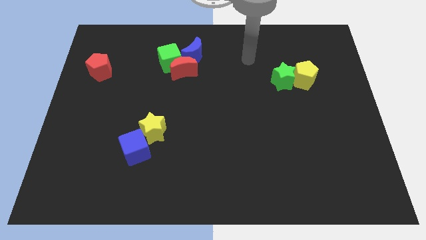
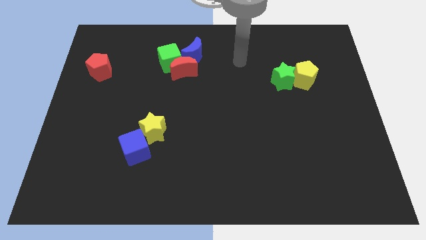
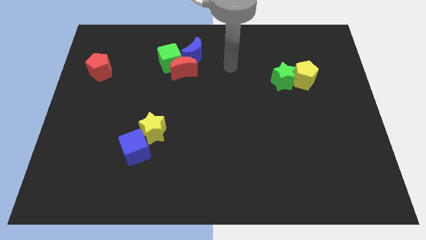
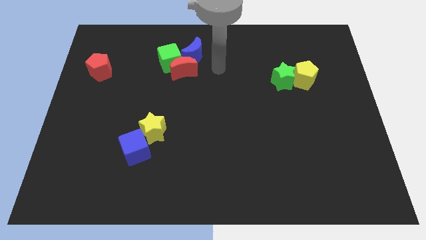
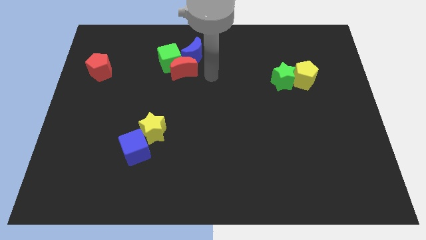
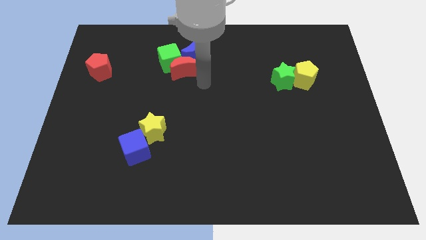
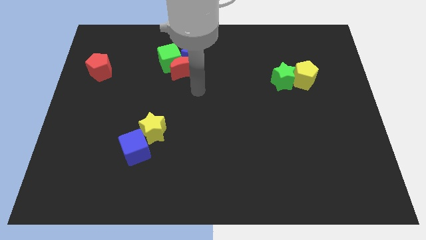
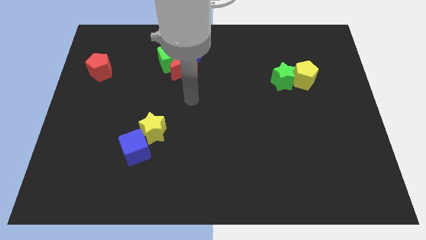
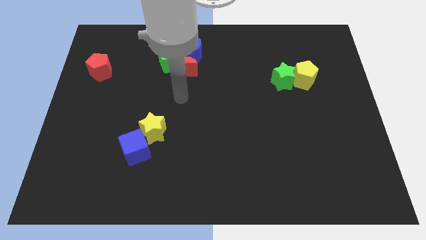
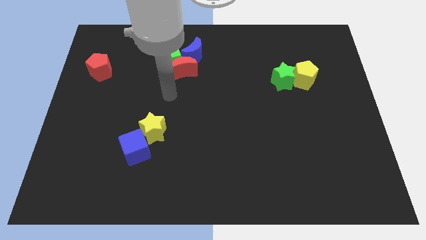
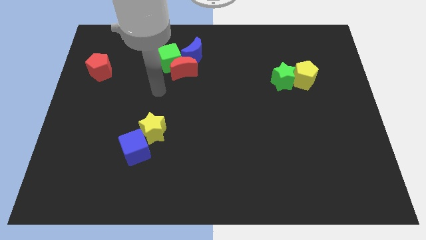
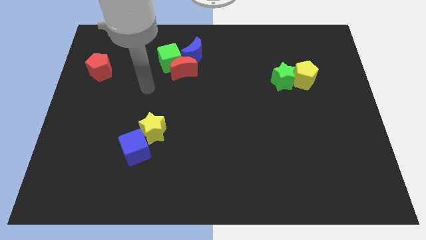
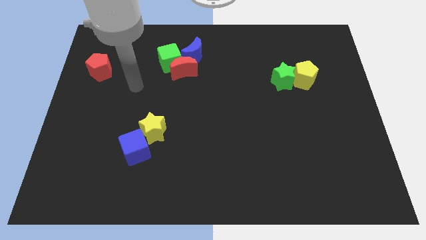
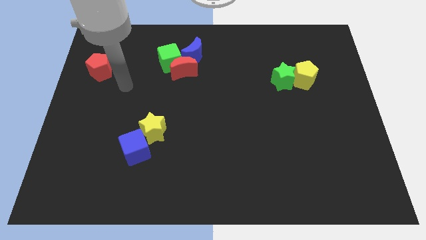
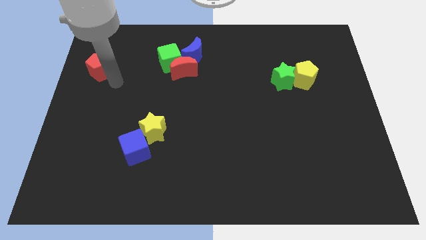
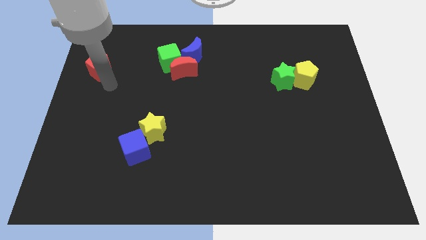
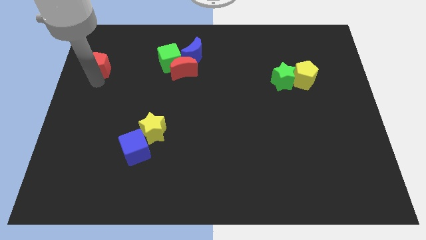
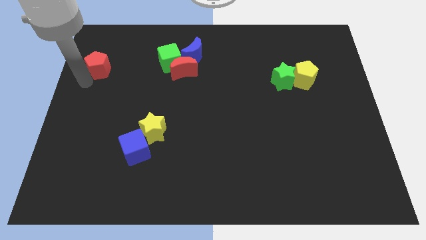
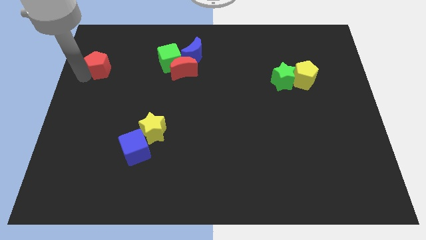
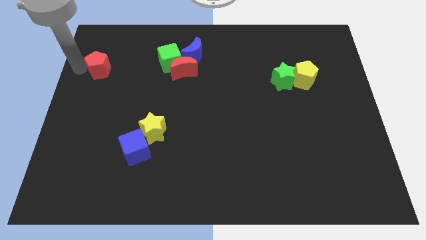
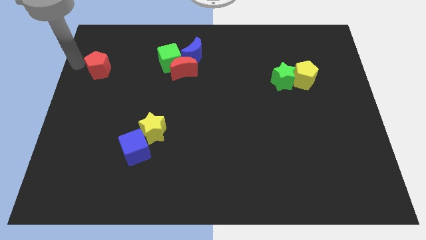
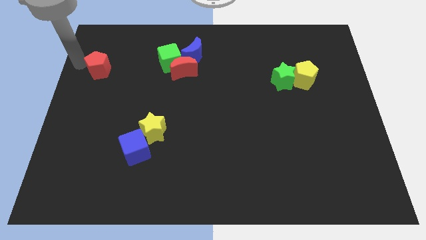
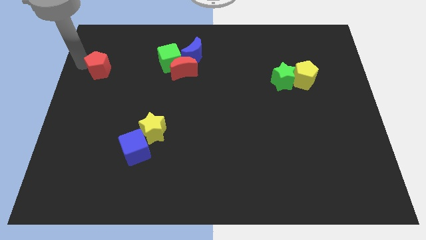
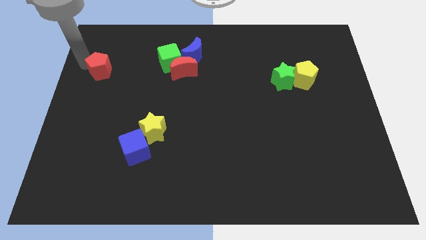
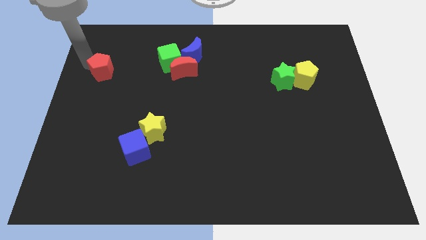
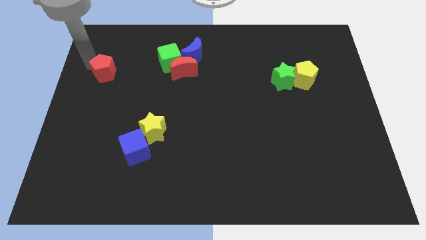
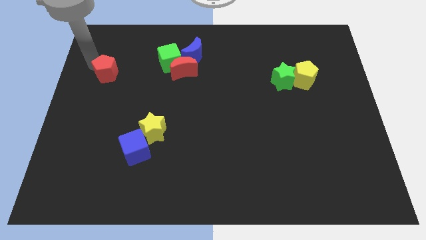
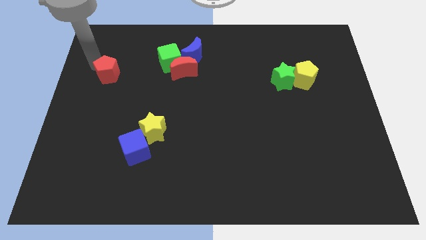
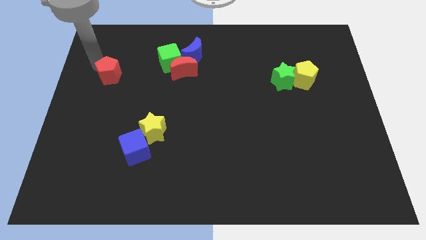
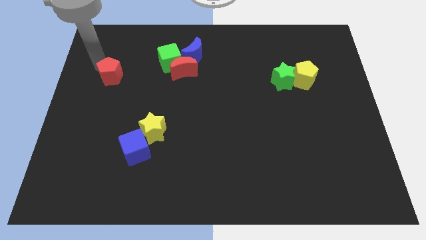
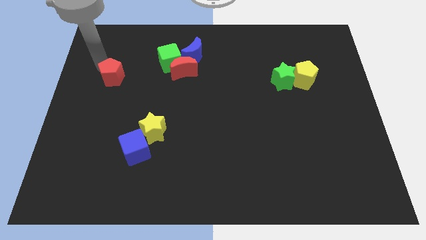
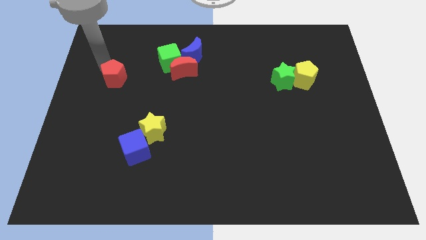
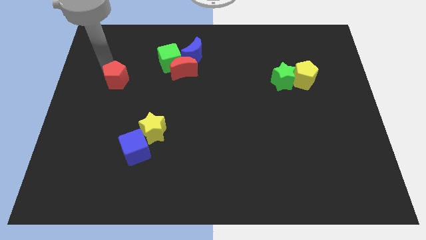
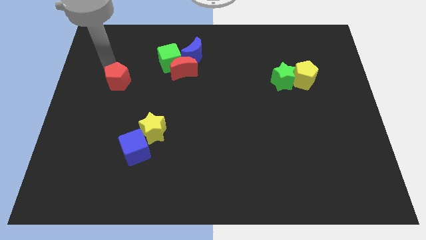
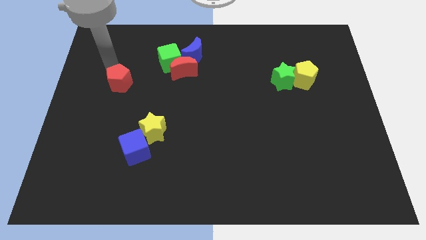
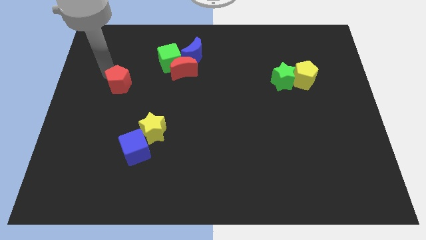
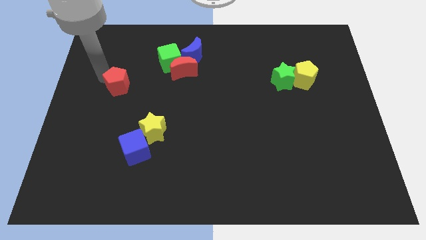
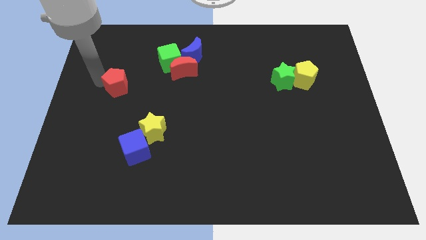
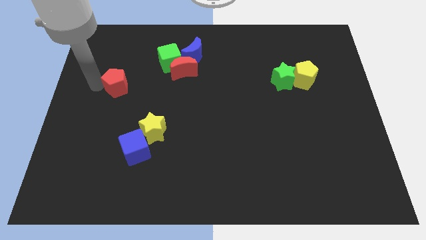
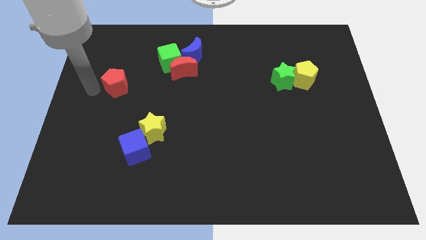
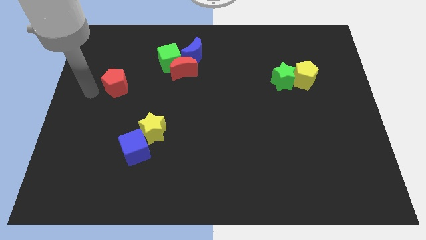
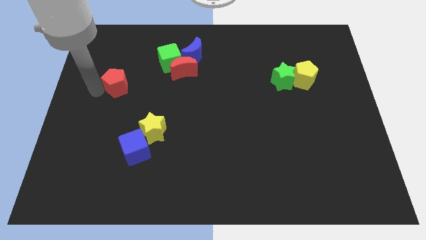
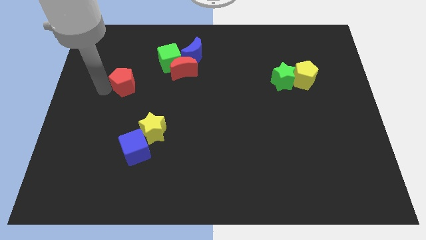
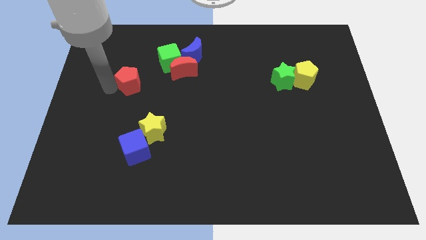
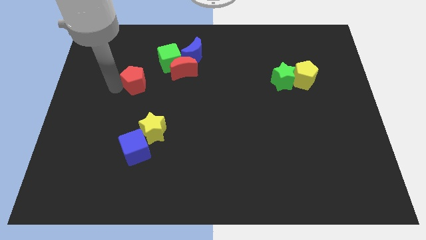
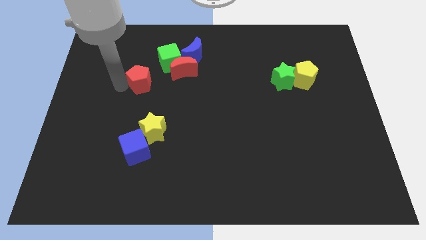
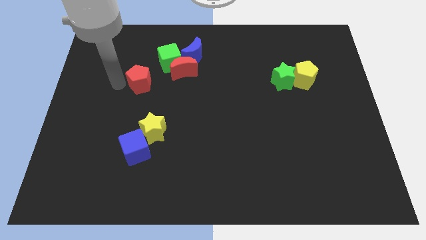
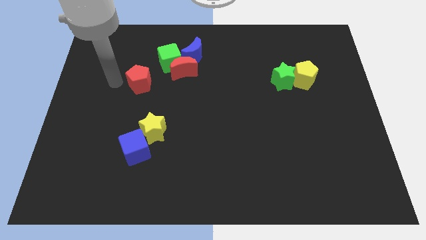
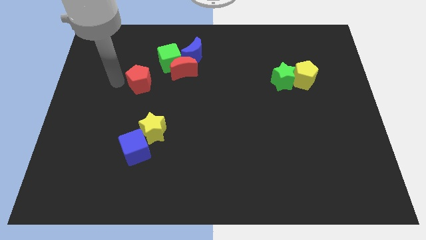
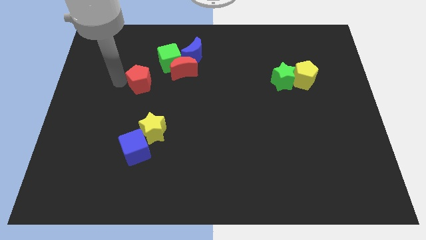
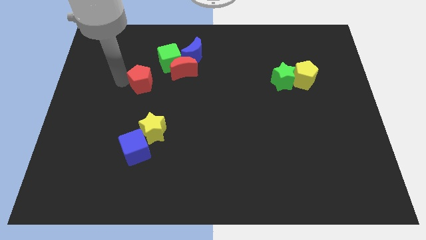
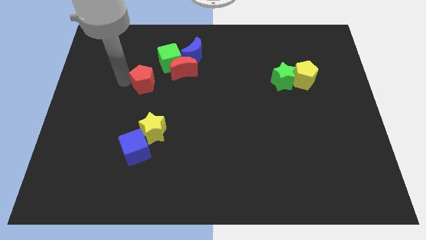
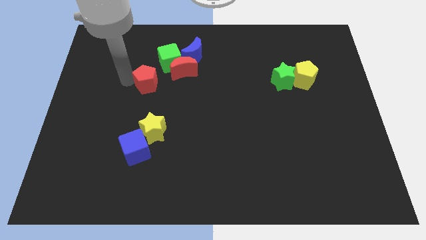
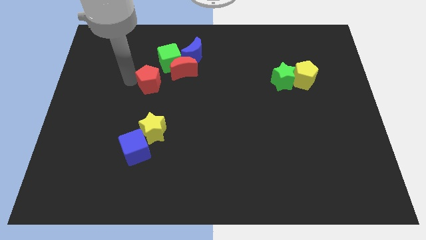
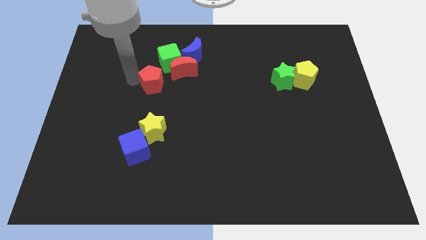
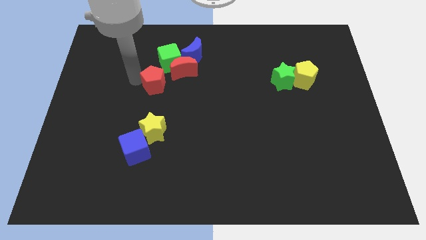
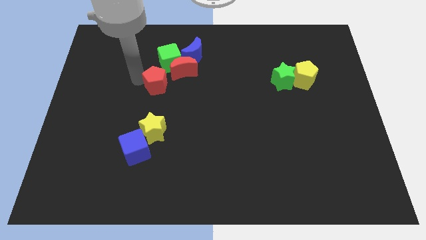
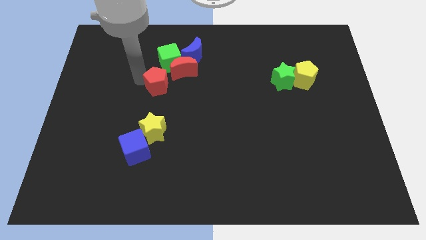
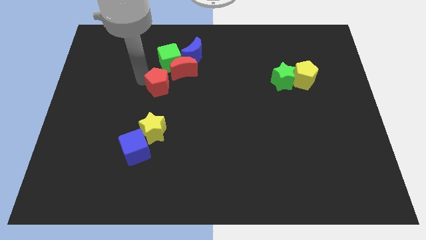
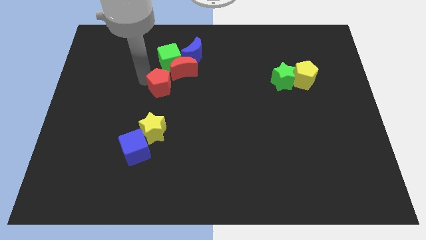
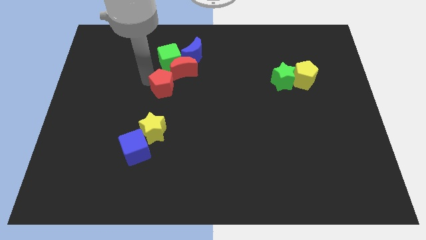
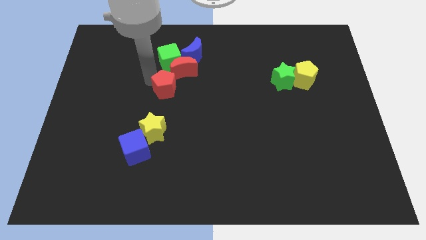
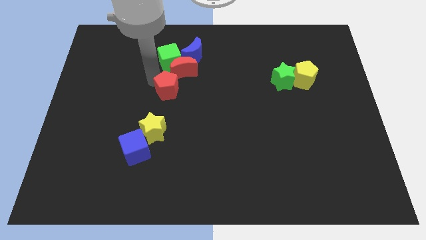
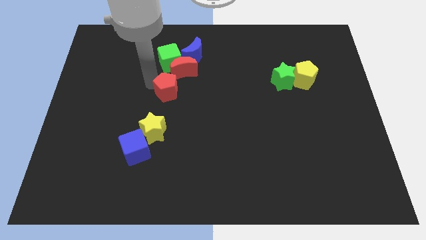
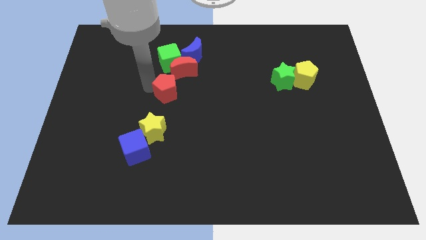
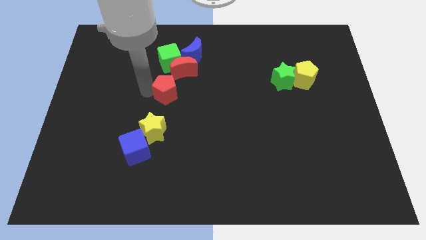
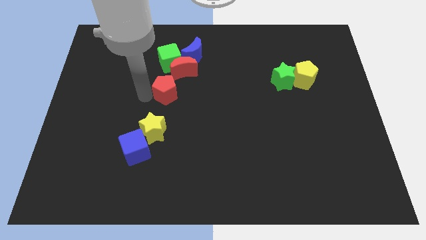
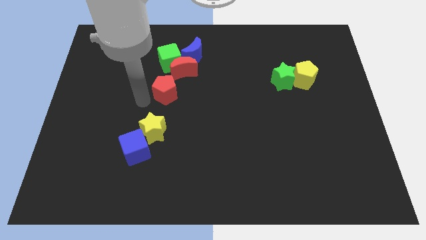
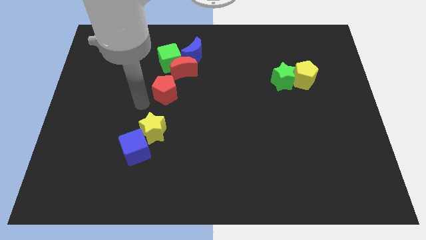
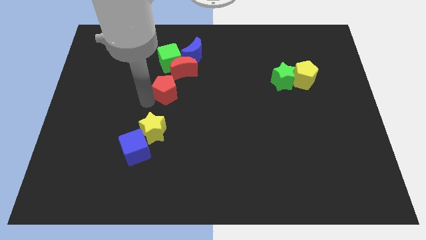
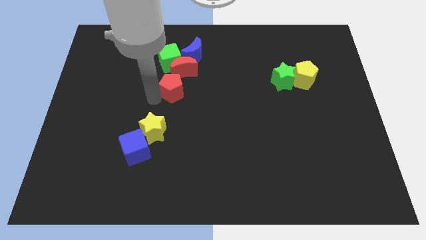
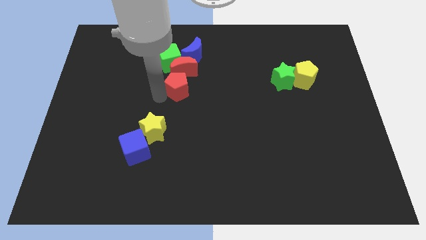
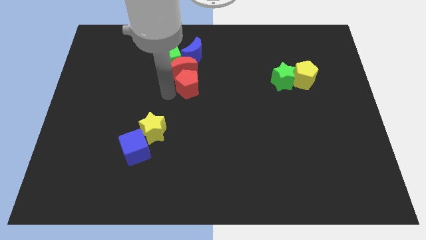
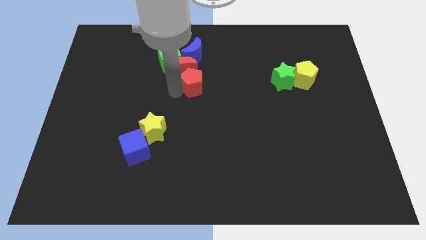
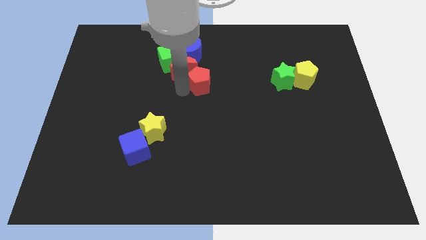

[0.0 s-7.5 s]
move the red pentagon to the right side of the red moon
